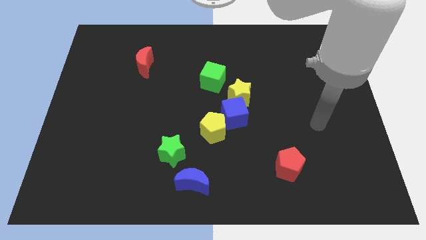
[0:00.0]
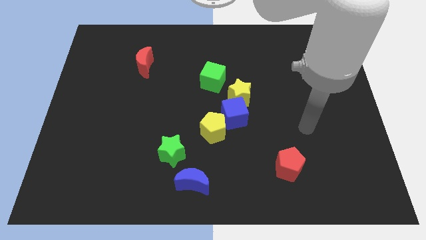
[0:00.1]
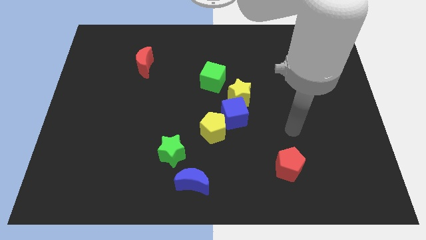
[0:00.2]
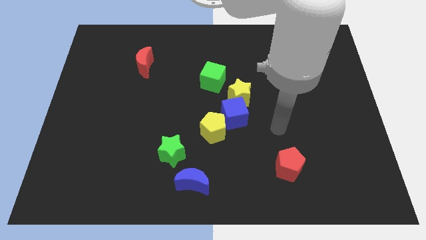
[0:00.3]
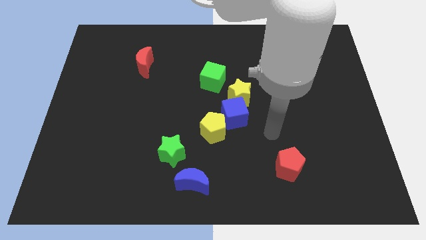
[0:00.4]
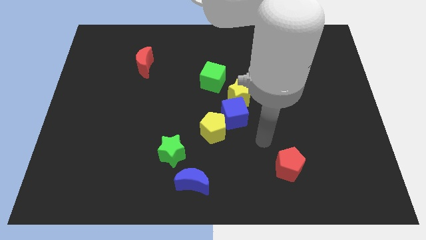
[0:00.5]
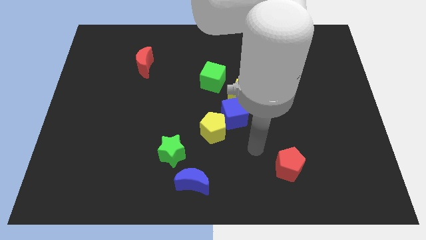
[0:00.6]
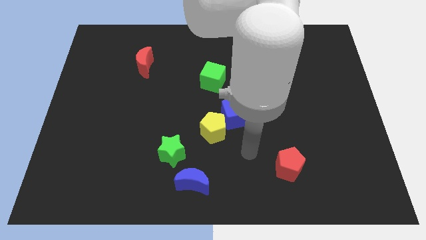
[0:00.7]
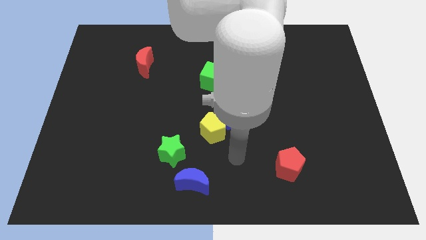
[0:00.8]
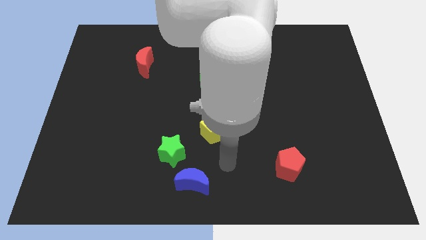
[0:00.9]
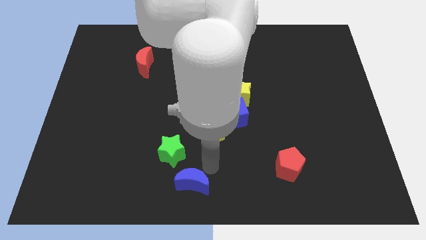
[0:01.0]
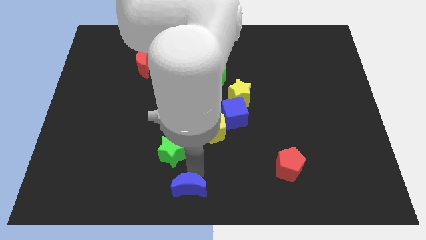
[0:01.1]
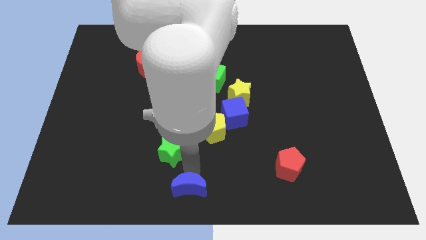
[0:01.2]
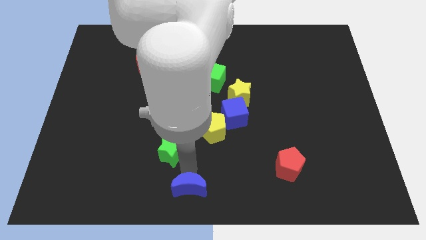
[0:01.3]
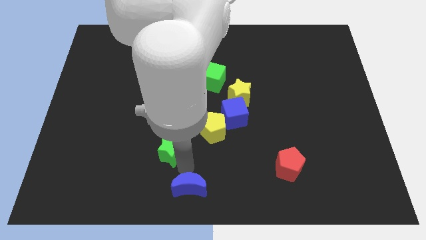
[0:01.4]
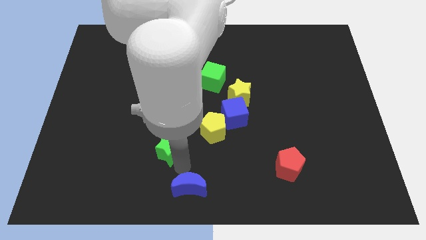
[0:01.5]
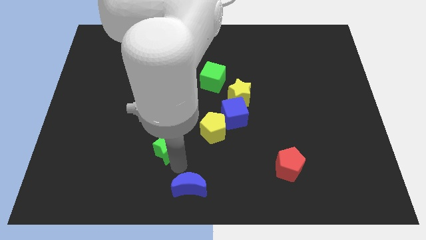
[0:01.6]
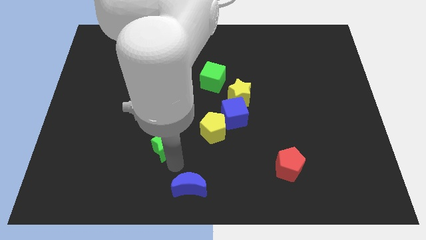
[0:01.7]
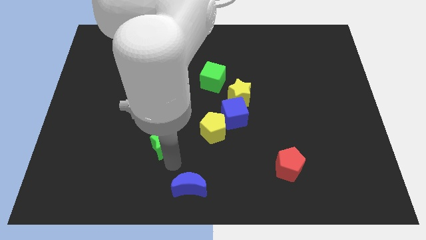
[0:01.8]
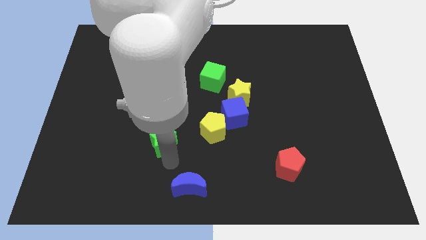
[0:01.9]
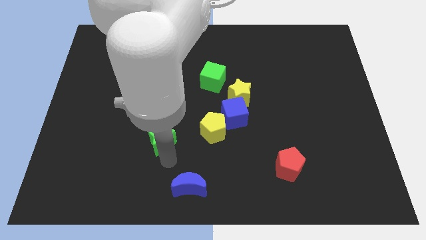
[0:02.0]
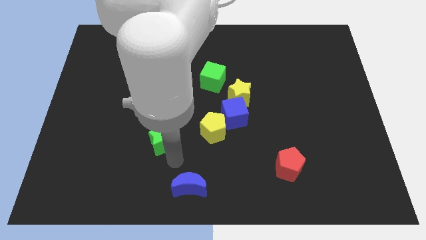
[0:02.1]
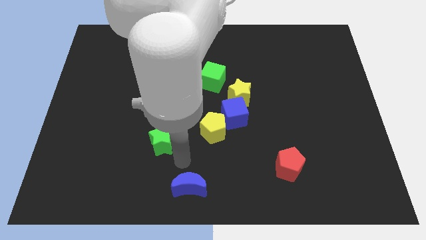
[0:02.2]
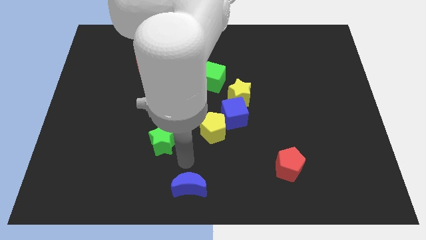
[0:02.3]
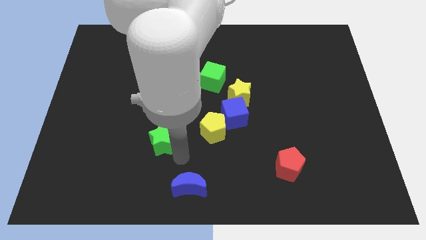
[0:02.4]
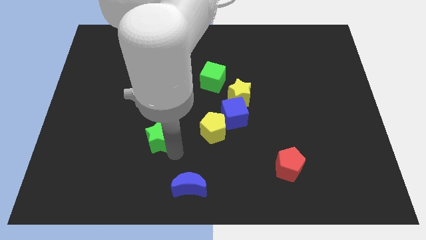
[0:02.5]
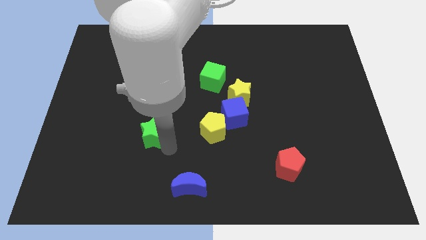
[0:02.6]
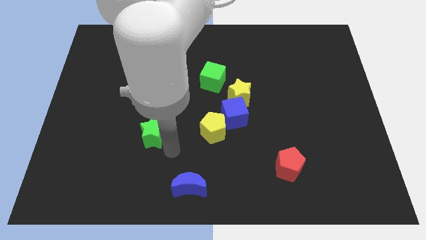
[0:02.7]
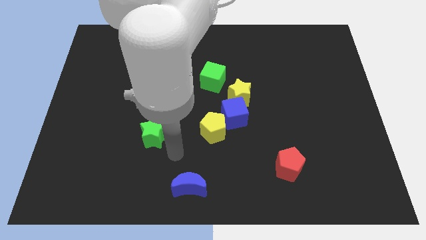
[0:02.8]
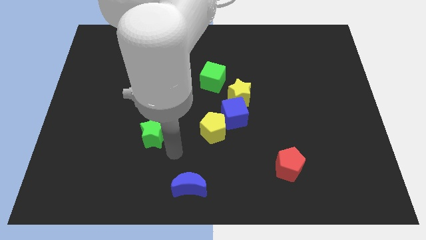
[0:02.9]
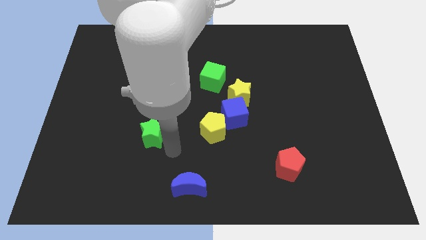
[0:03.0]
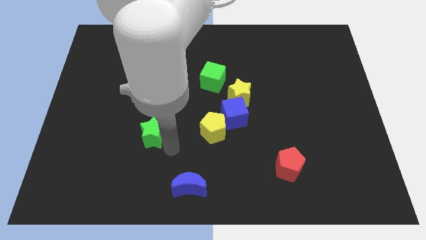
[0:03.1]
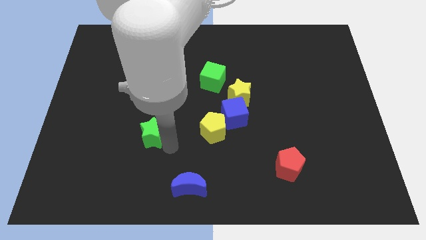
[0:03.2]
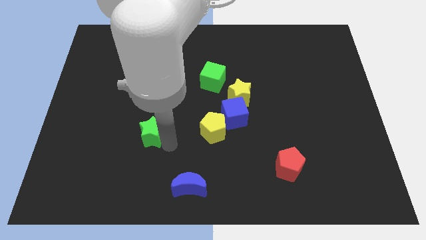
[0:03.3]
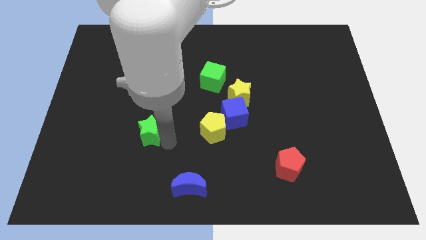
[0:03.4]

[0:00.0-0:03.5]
slightly move the green star upwards and left diagonally

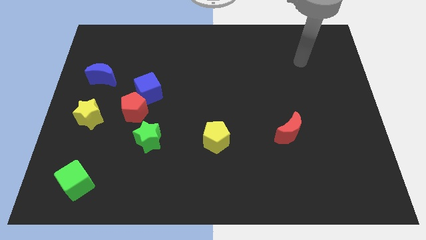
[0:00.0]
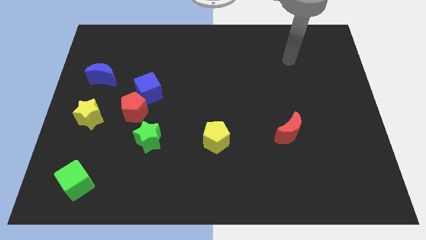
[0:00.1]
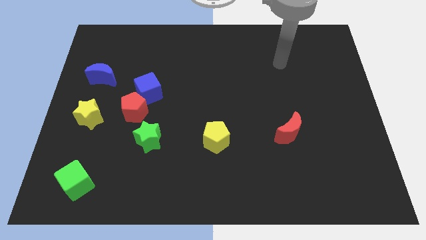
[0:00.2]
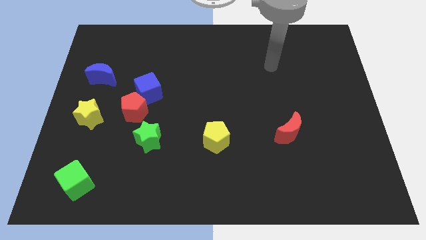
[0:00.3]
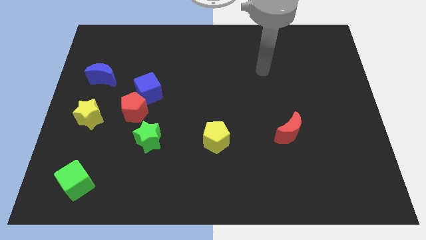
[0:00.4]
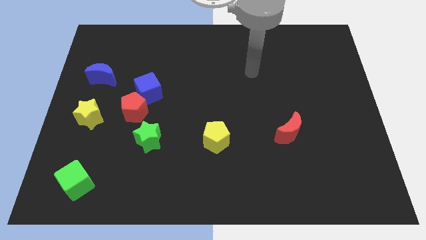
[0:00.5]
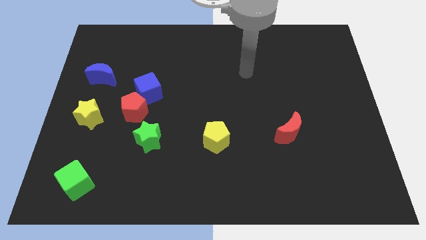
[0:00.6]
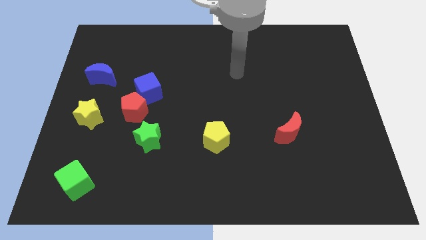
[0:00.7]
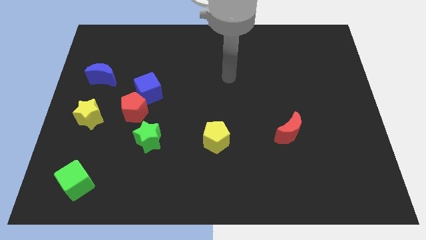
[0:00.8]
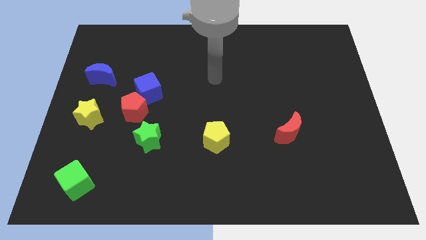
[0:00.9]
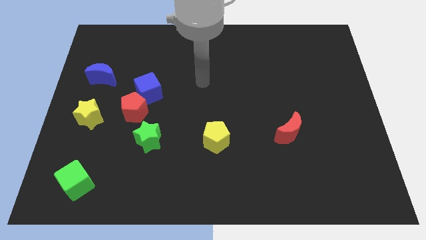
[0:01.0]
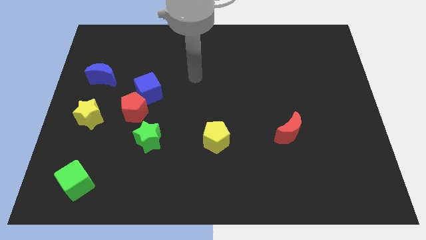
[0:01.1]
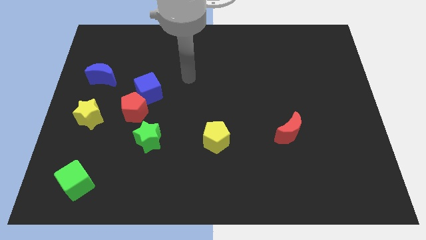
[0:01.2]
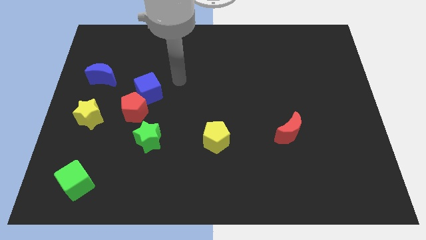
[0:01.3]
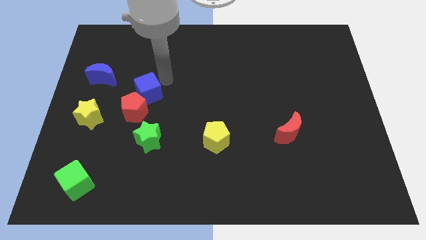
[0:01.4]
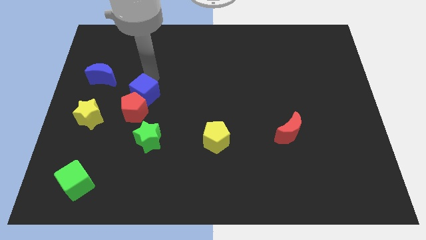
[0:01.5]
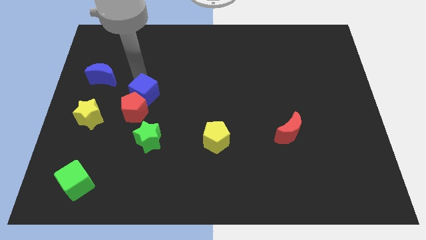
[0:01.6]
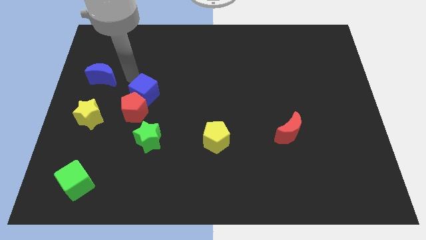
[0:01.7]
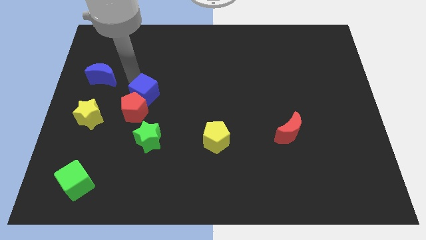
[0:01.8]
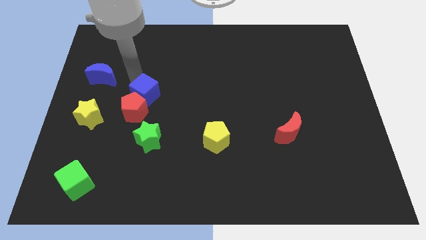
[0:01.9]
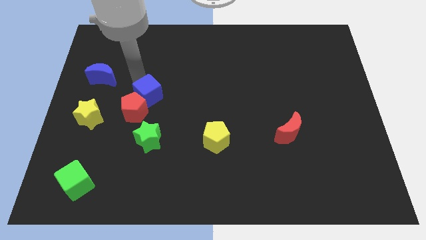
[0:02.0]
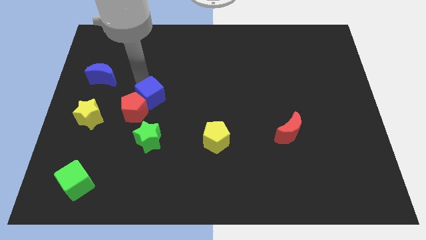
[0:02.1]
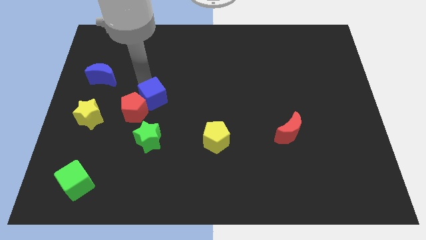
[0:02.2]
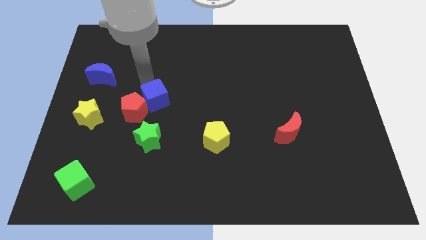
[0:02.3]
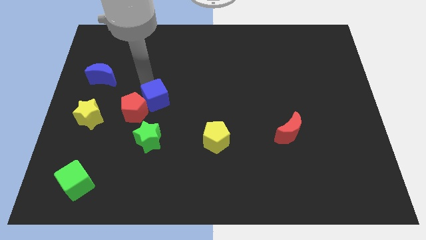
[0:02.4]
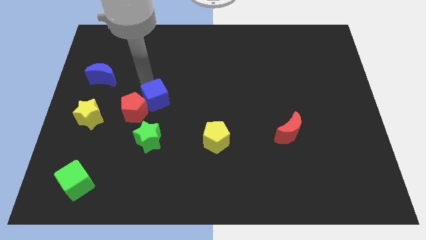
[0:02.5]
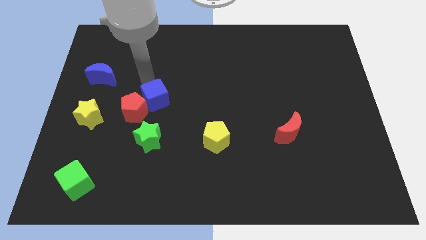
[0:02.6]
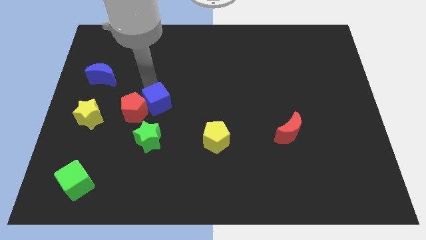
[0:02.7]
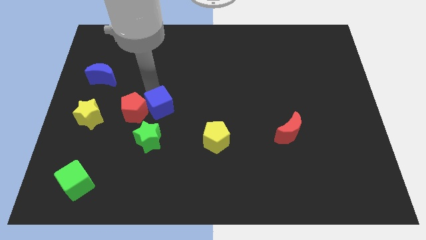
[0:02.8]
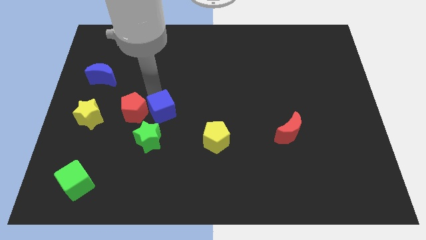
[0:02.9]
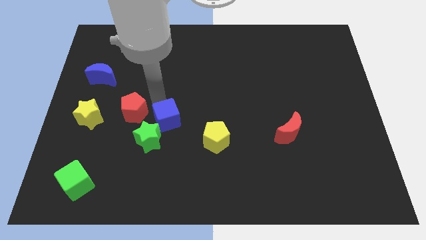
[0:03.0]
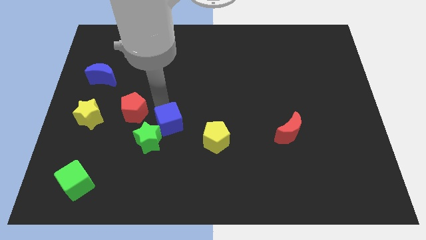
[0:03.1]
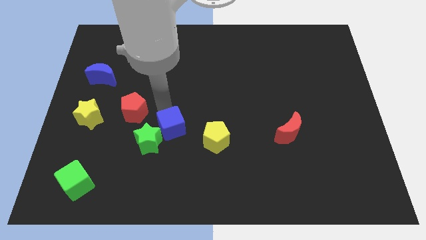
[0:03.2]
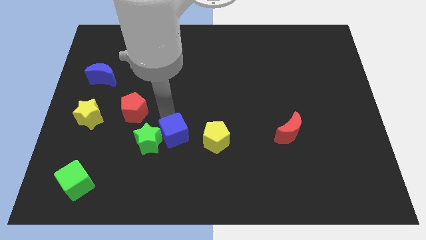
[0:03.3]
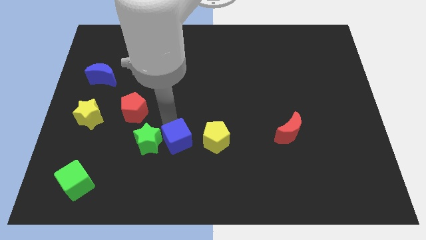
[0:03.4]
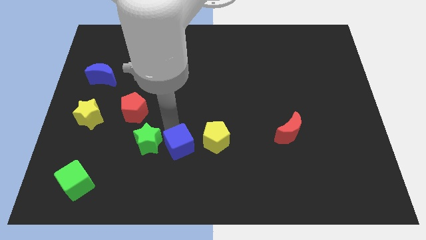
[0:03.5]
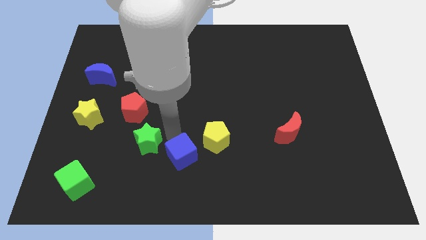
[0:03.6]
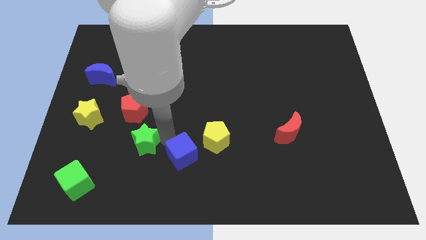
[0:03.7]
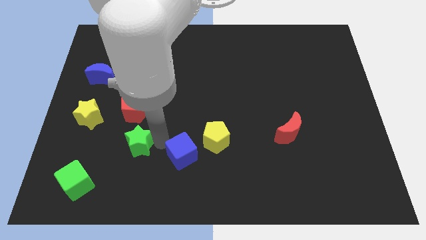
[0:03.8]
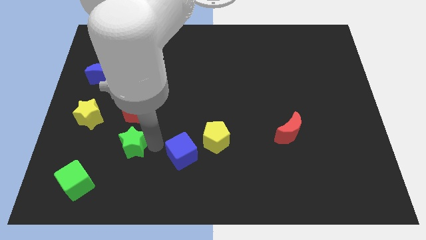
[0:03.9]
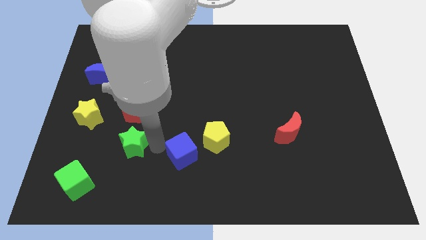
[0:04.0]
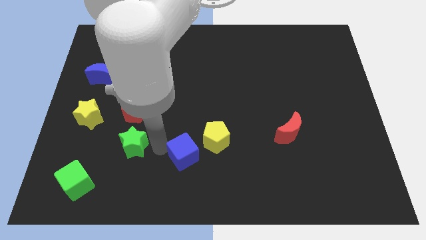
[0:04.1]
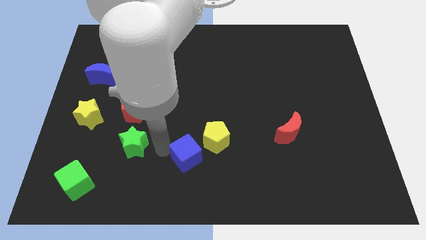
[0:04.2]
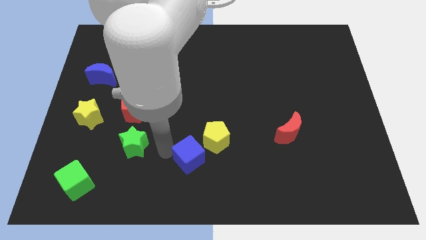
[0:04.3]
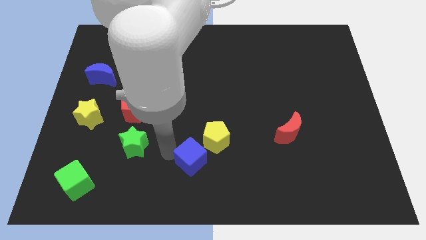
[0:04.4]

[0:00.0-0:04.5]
move the blue cube downwards and to the right
